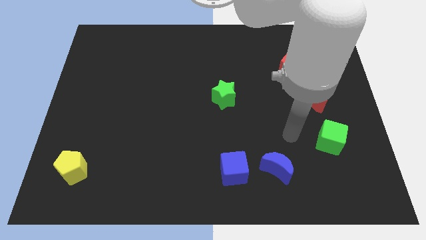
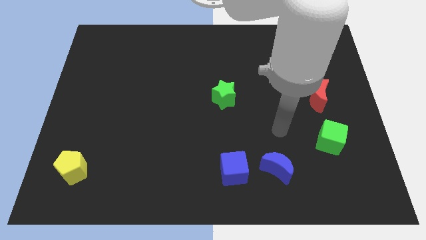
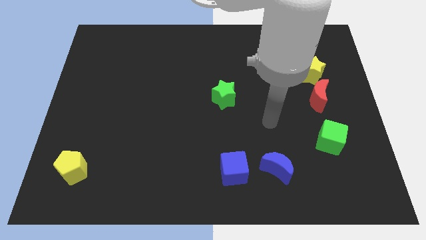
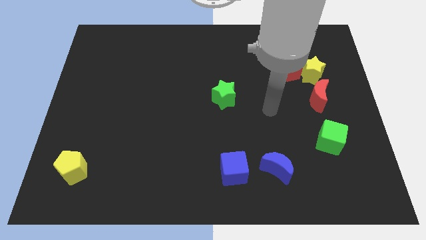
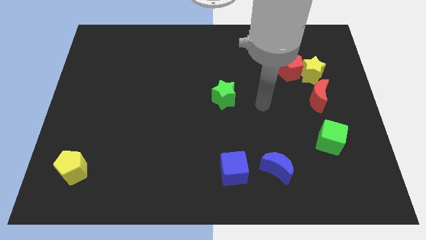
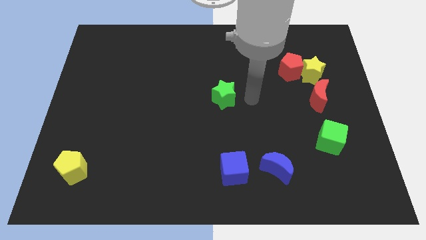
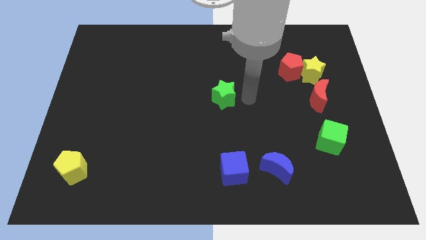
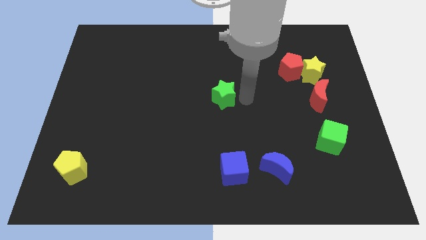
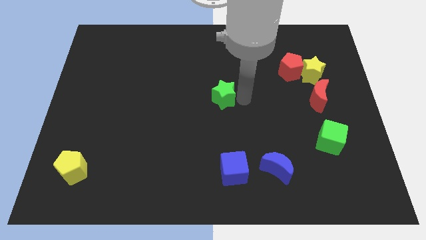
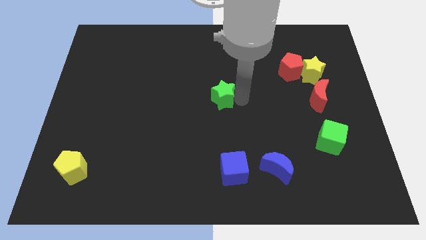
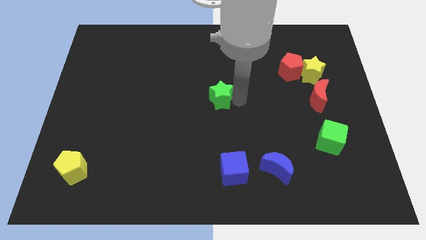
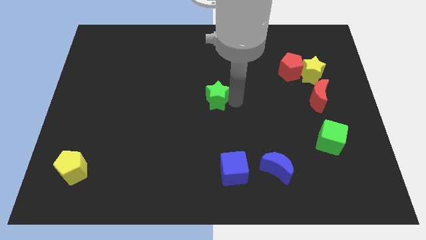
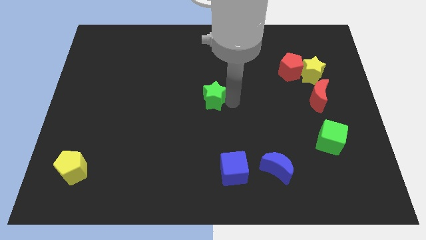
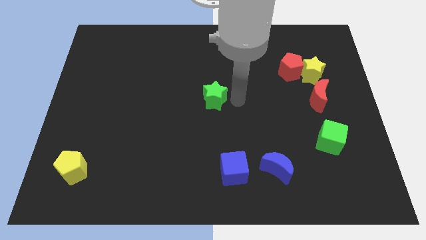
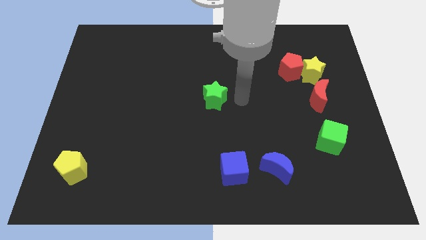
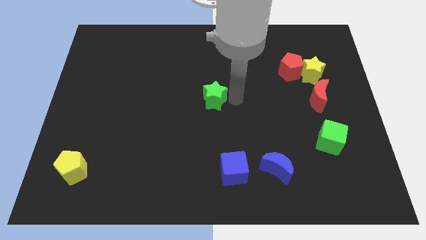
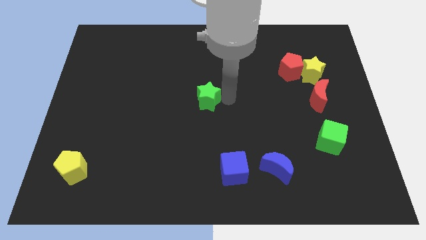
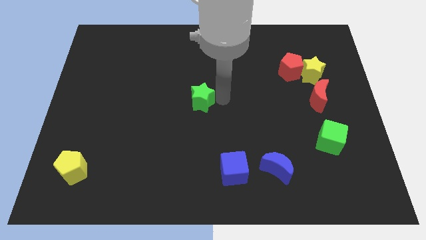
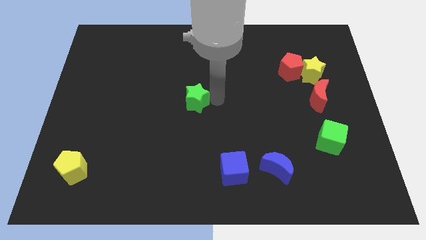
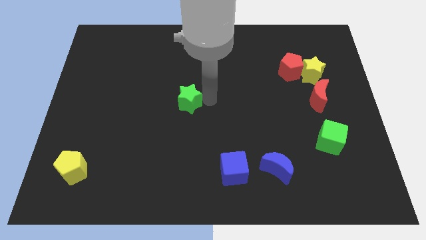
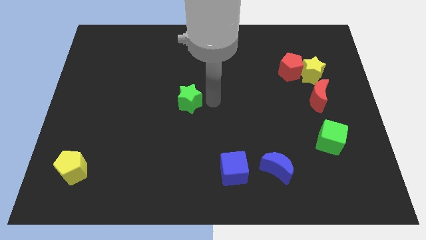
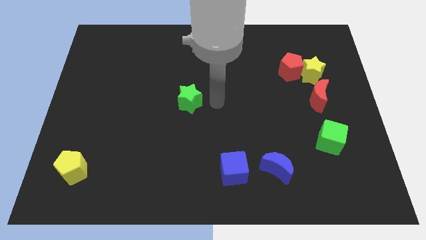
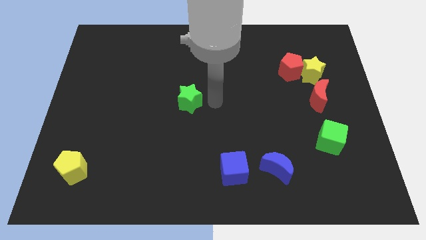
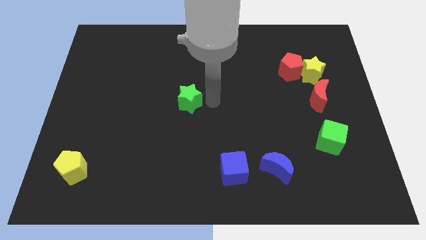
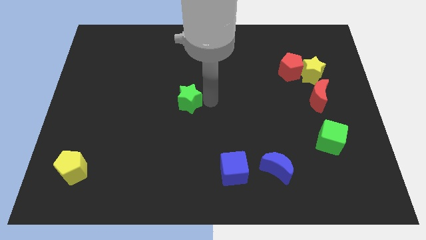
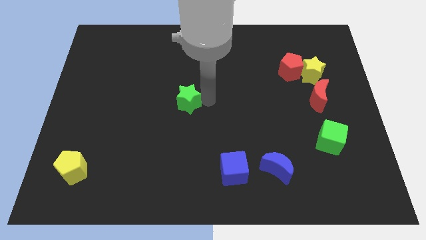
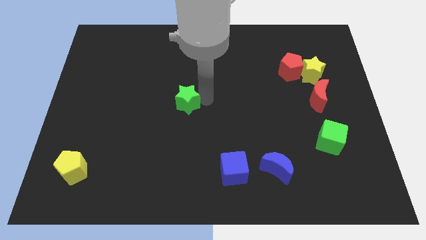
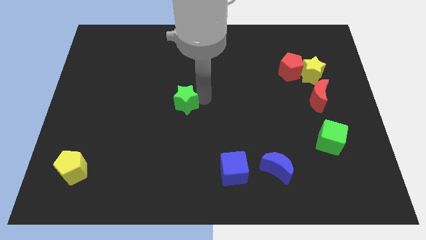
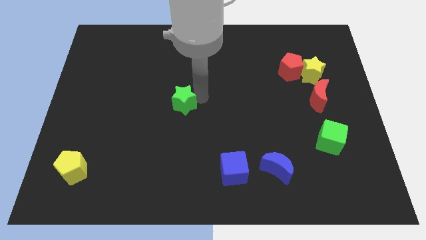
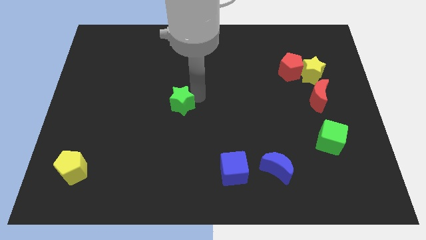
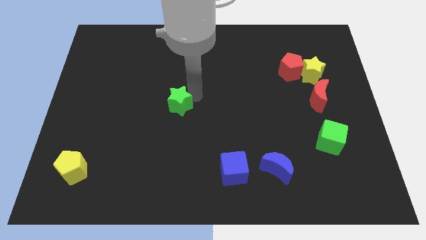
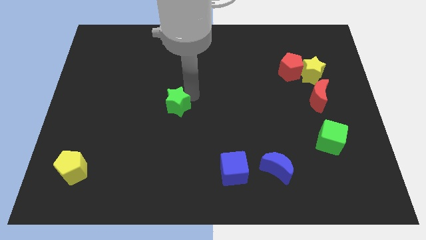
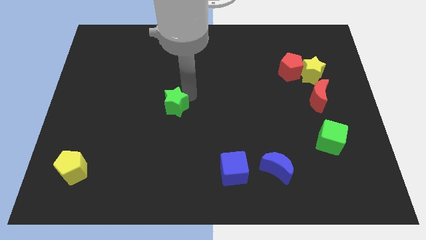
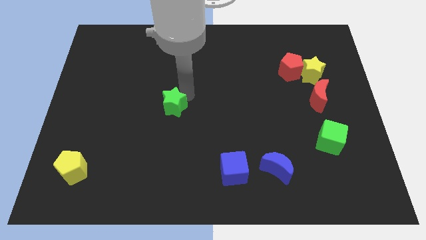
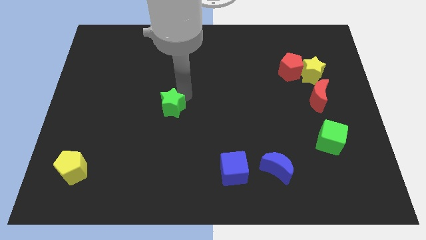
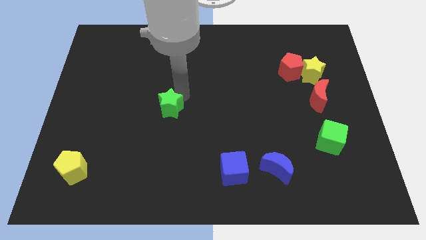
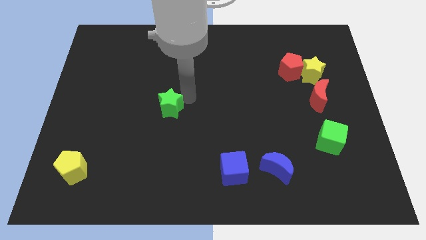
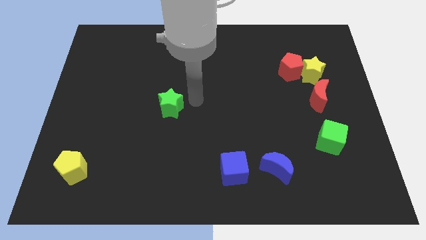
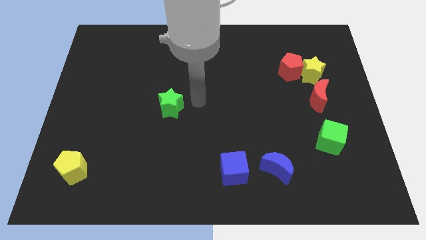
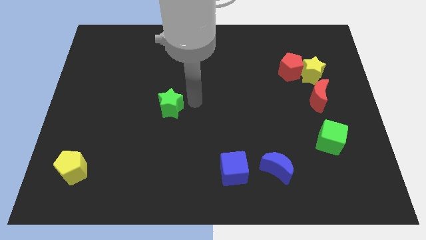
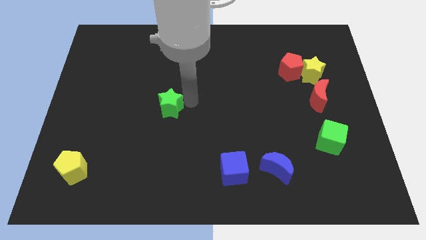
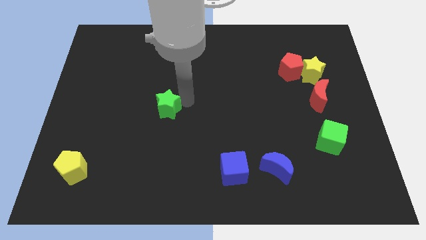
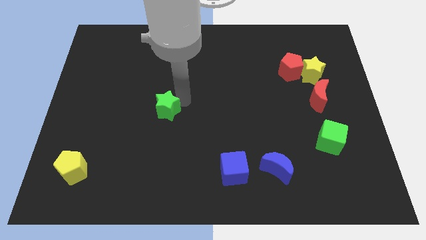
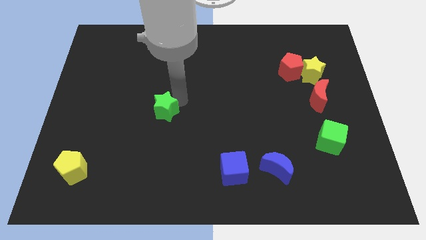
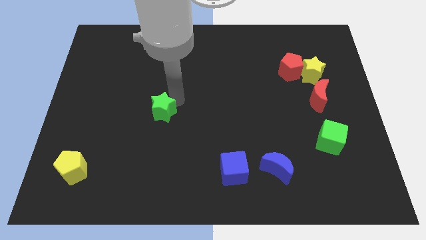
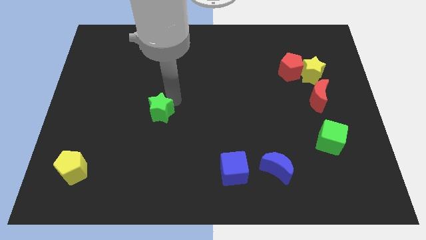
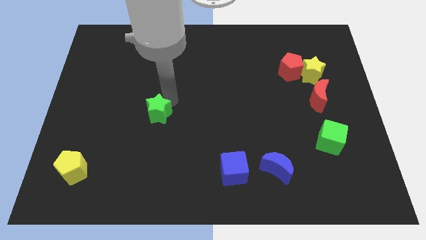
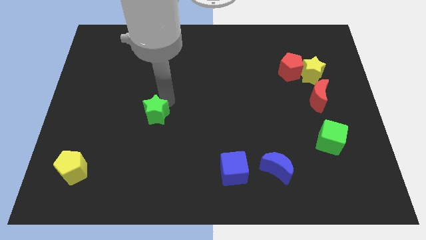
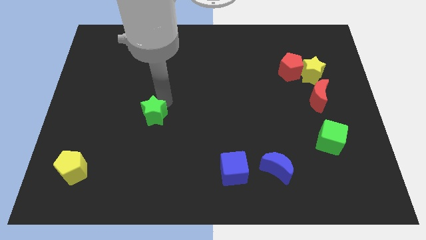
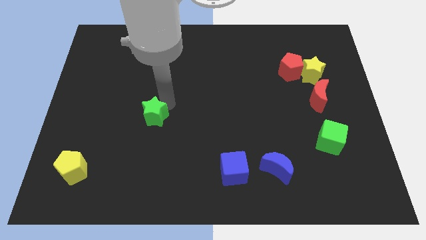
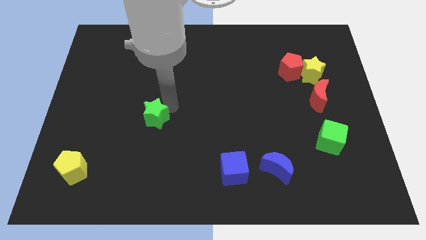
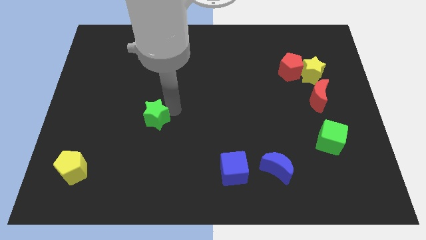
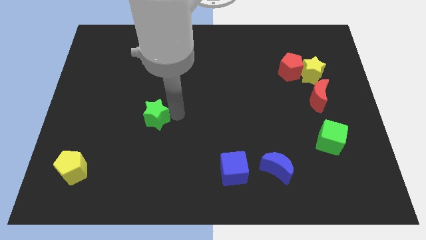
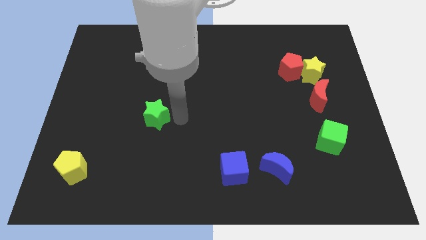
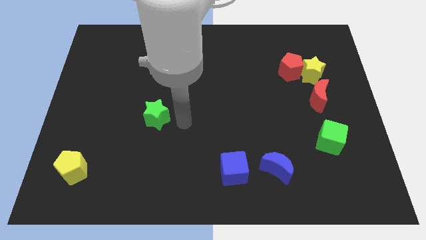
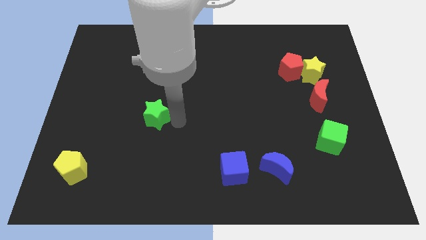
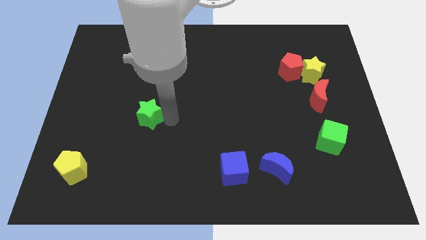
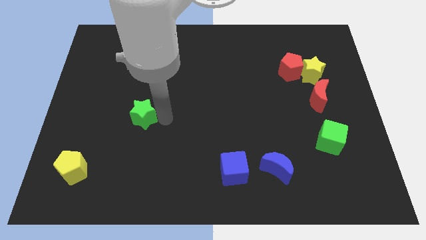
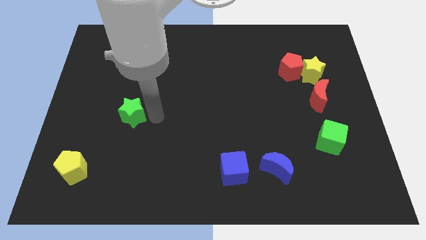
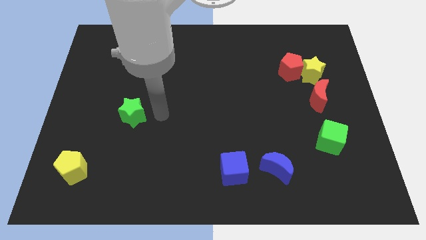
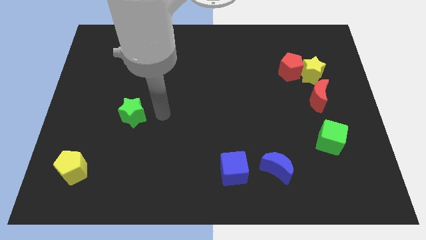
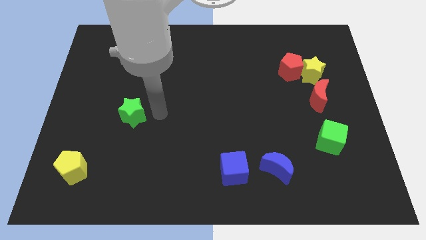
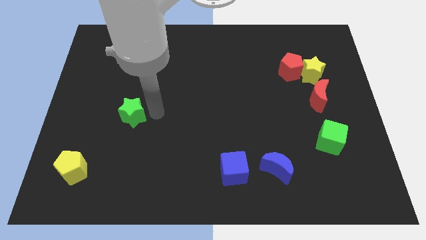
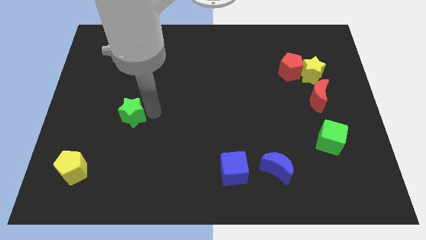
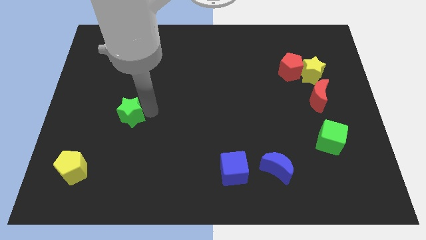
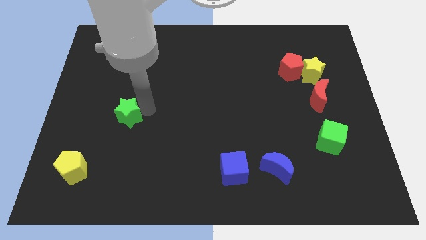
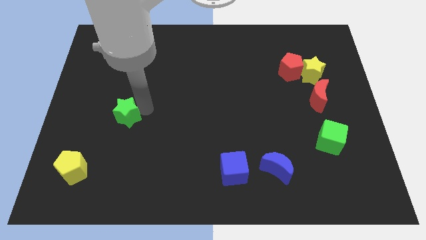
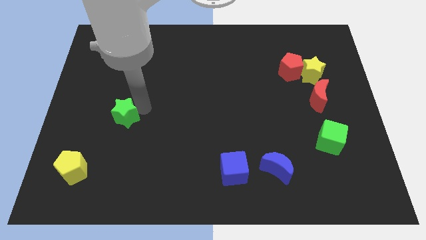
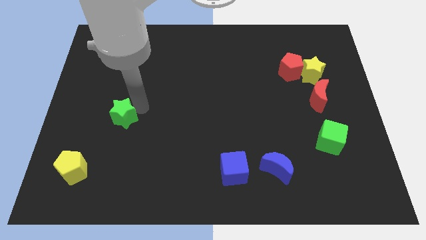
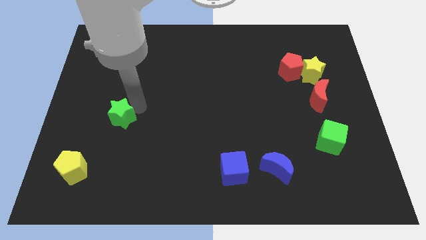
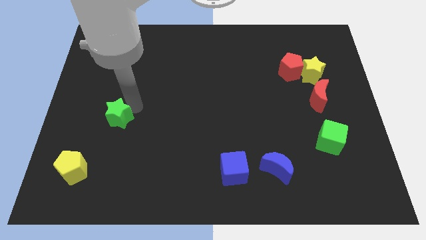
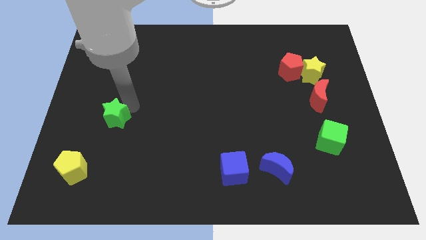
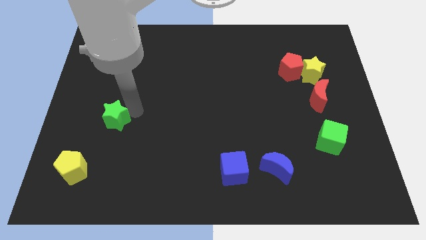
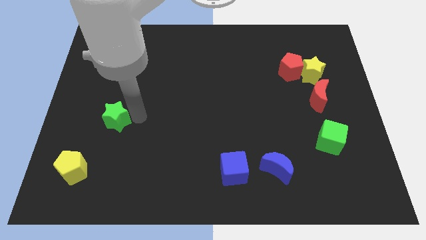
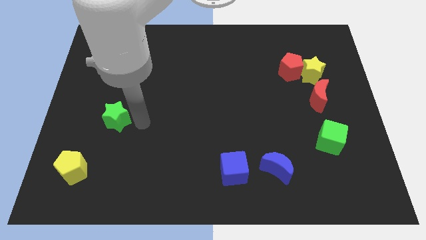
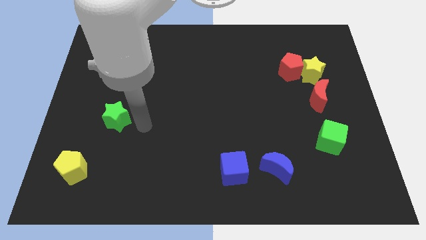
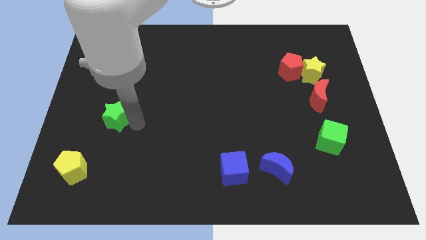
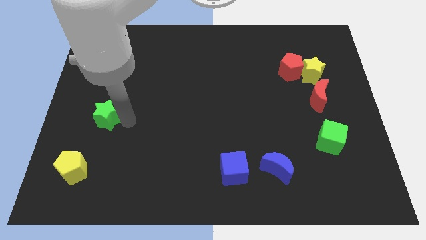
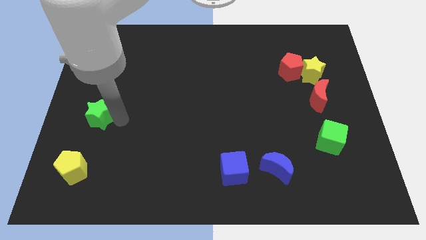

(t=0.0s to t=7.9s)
slide the green star to the left side
